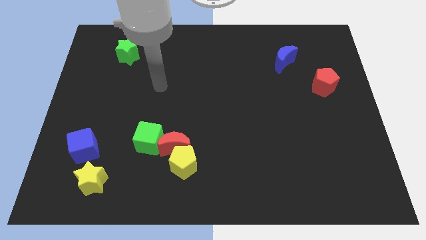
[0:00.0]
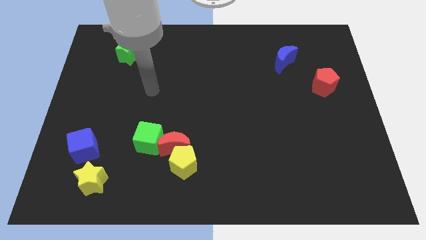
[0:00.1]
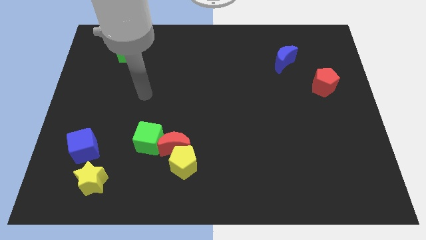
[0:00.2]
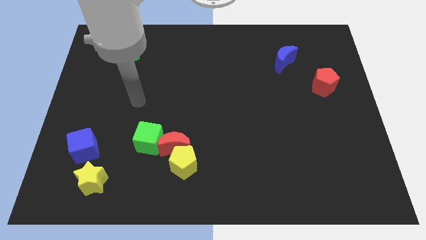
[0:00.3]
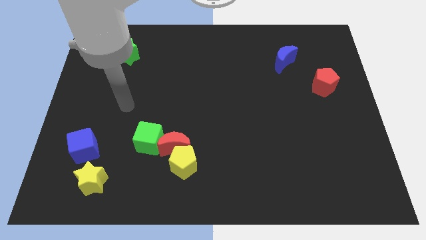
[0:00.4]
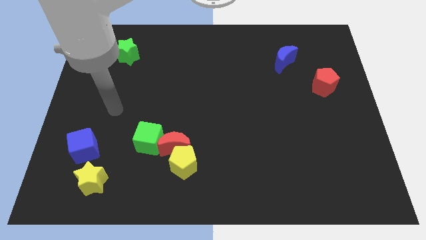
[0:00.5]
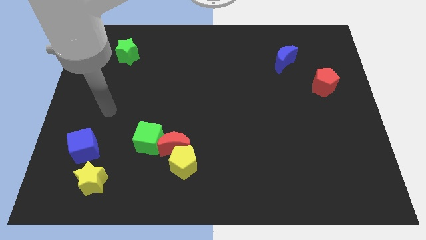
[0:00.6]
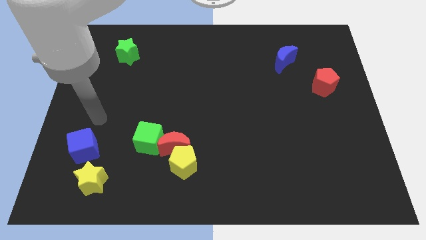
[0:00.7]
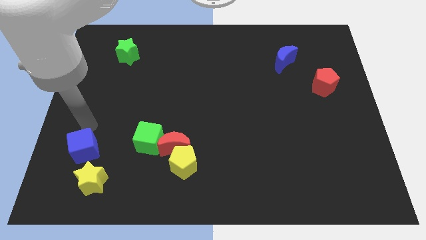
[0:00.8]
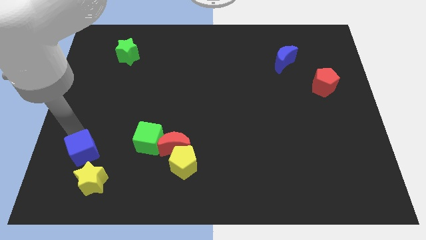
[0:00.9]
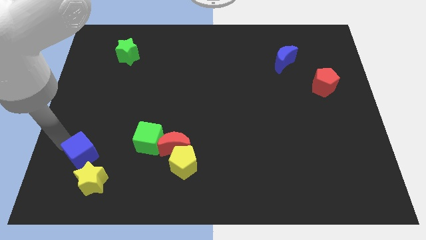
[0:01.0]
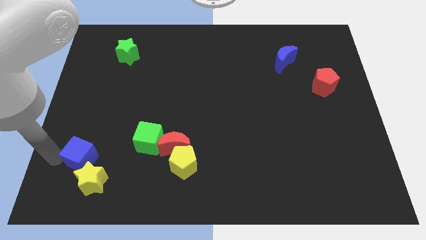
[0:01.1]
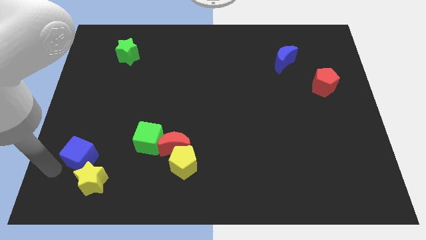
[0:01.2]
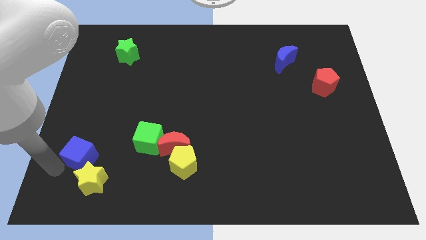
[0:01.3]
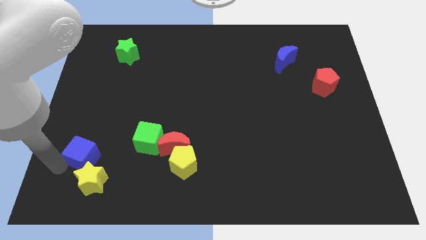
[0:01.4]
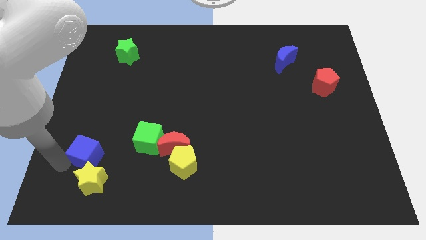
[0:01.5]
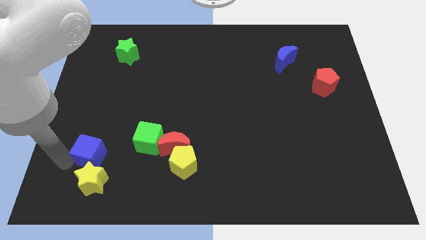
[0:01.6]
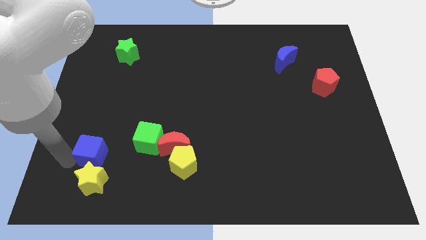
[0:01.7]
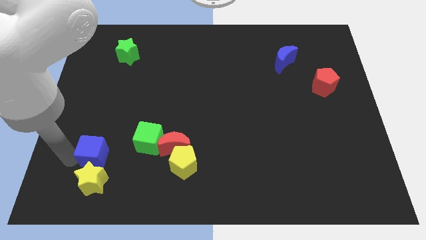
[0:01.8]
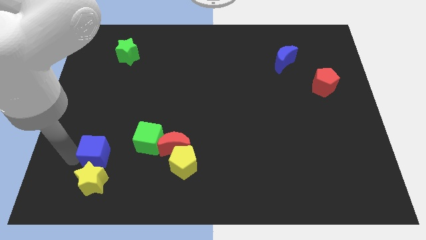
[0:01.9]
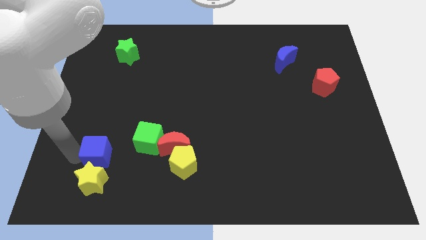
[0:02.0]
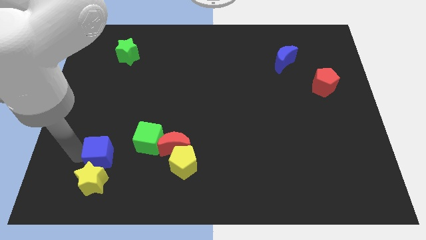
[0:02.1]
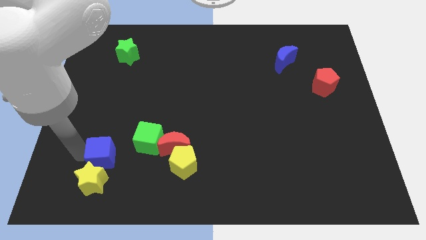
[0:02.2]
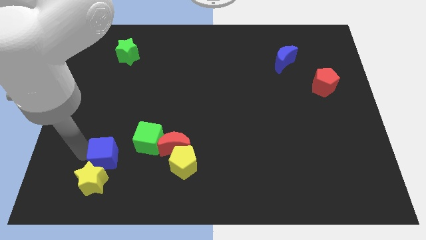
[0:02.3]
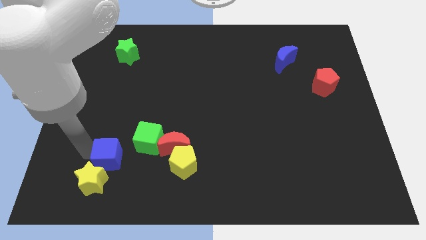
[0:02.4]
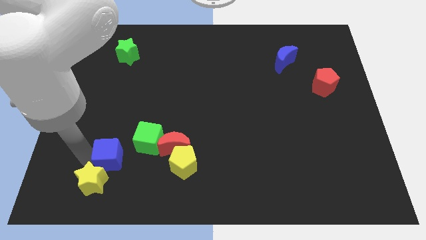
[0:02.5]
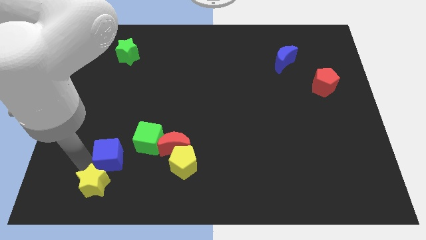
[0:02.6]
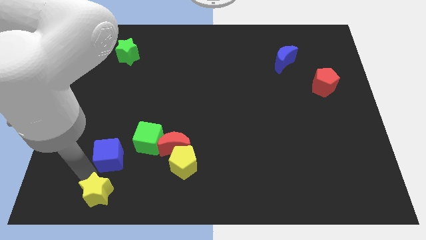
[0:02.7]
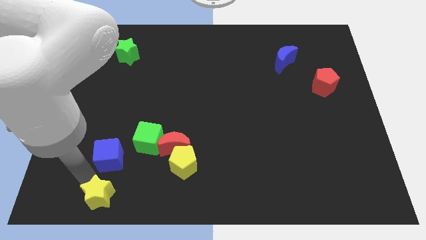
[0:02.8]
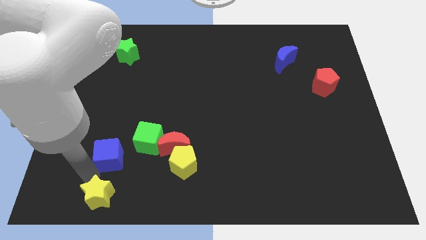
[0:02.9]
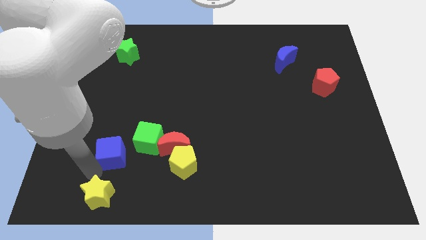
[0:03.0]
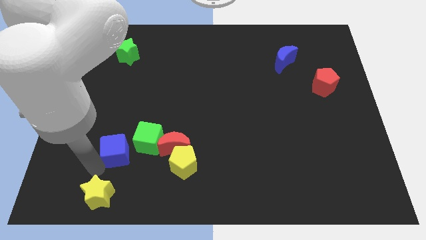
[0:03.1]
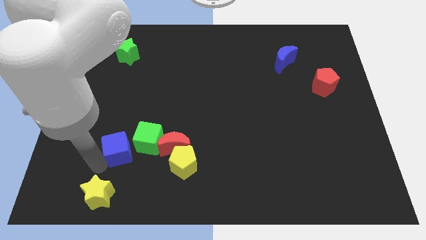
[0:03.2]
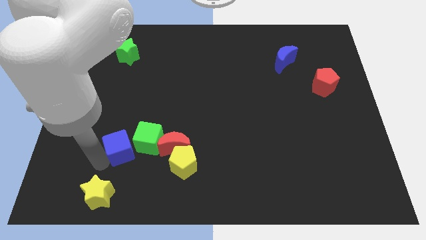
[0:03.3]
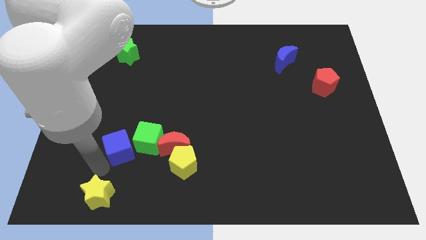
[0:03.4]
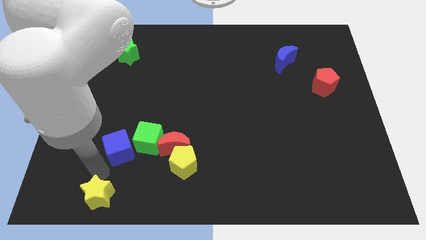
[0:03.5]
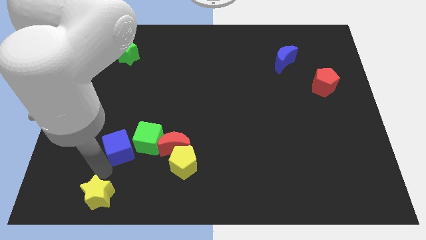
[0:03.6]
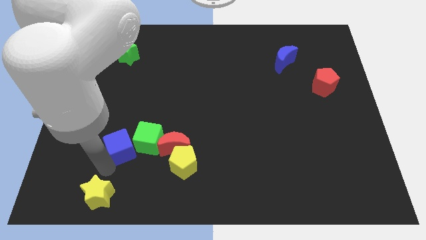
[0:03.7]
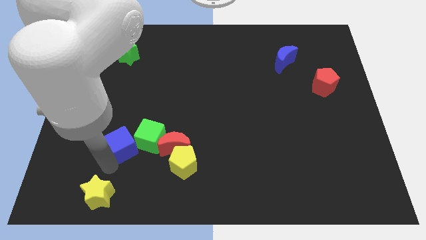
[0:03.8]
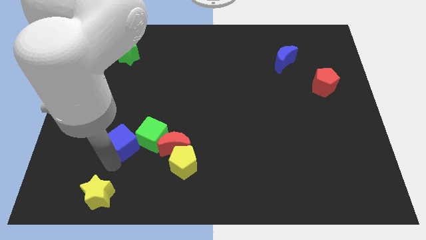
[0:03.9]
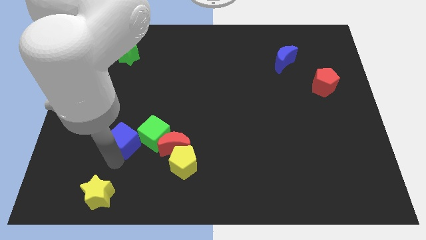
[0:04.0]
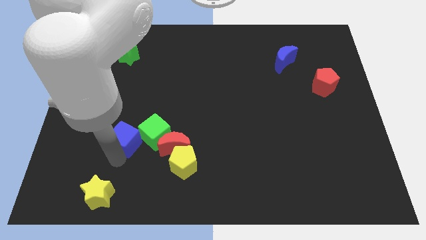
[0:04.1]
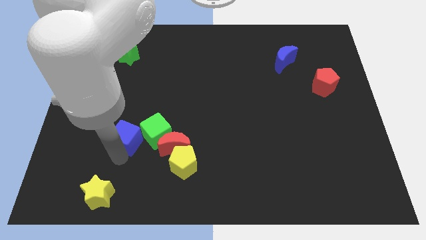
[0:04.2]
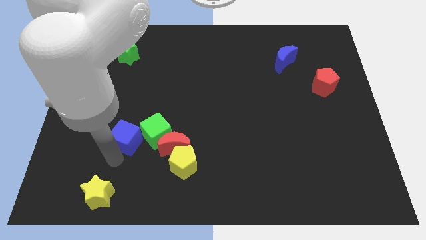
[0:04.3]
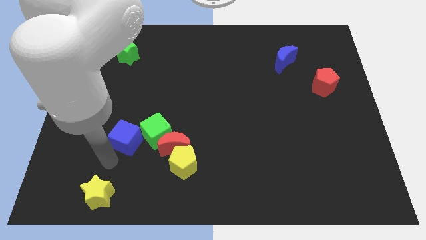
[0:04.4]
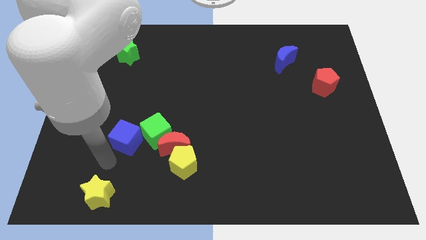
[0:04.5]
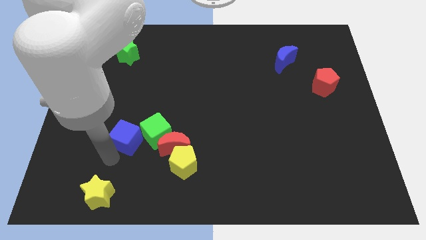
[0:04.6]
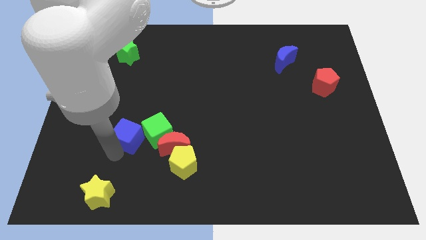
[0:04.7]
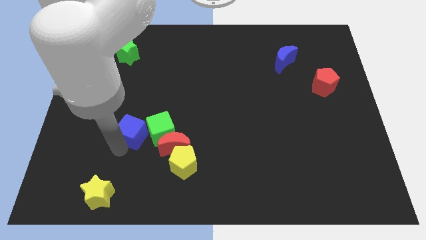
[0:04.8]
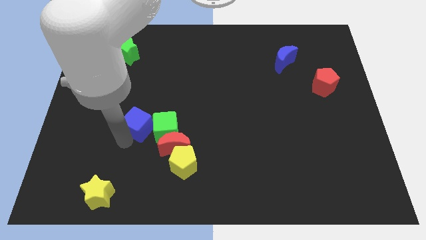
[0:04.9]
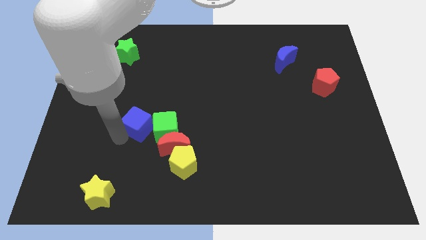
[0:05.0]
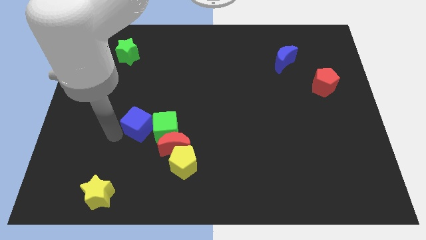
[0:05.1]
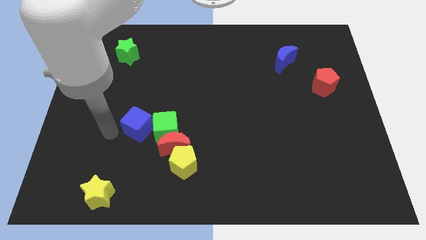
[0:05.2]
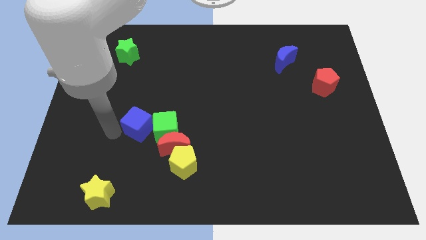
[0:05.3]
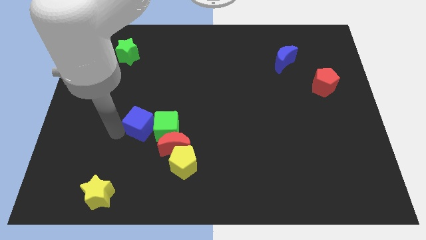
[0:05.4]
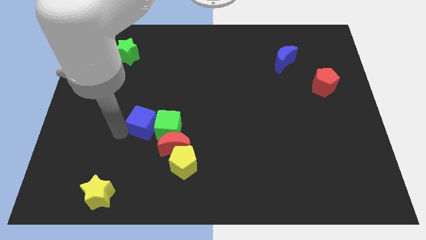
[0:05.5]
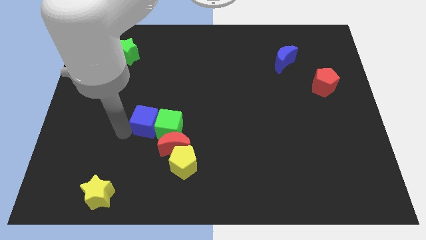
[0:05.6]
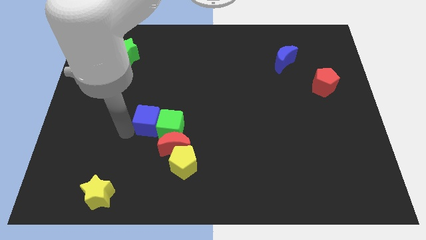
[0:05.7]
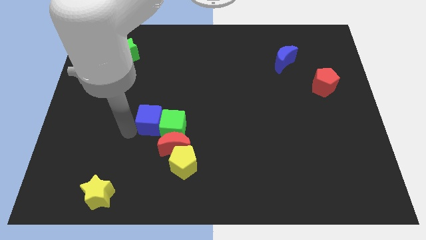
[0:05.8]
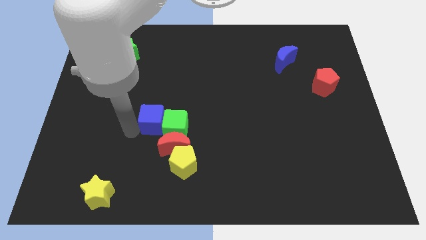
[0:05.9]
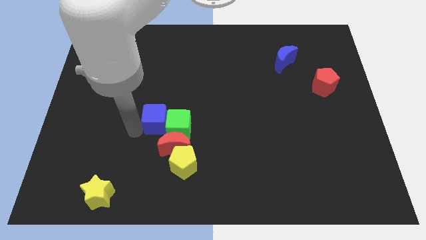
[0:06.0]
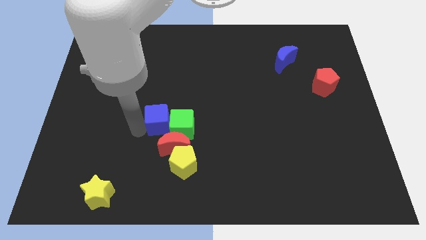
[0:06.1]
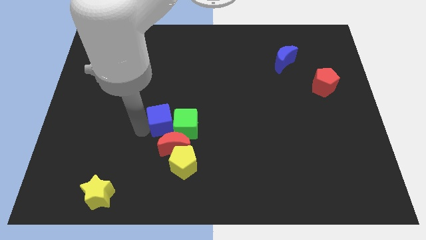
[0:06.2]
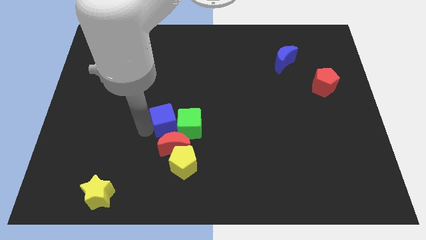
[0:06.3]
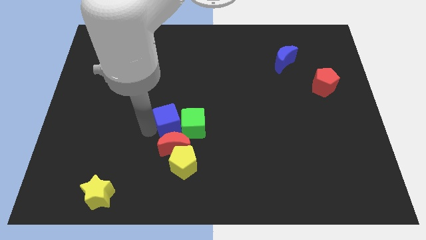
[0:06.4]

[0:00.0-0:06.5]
push the blue cube to the middle
